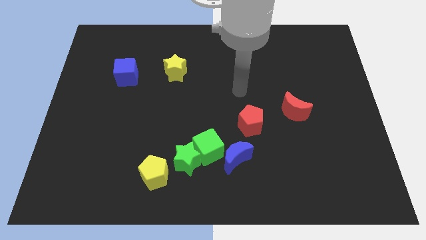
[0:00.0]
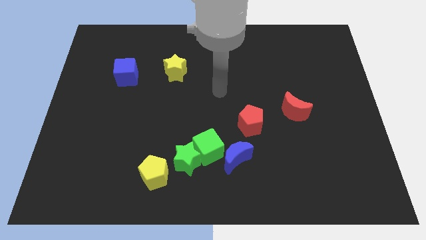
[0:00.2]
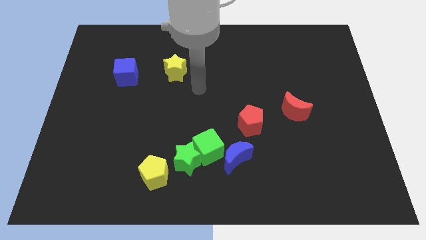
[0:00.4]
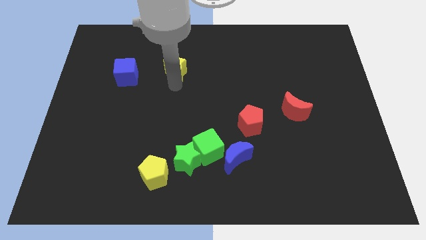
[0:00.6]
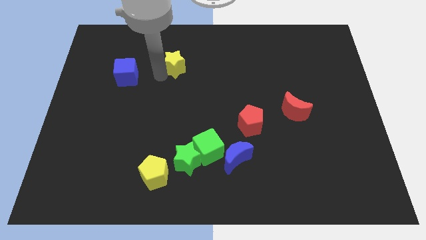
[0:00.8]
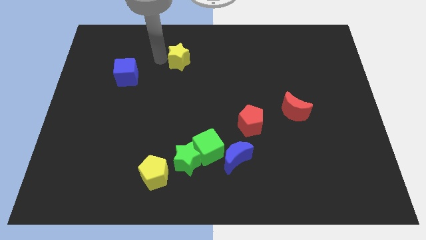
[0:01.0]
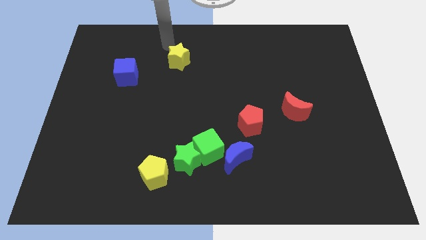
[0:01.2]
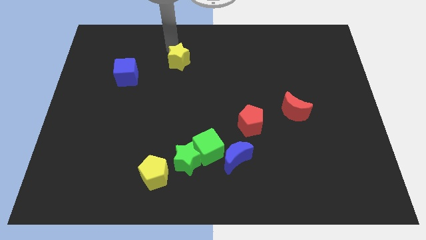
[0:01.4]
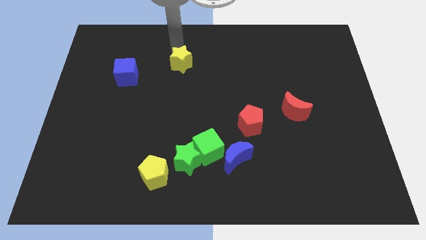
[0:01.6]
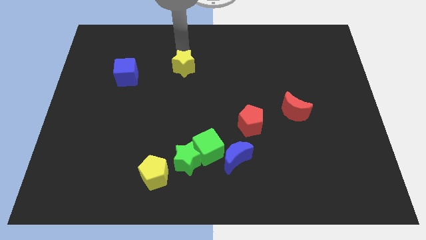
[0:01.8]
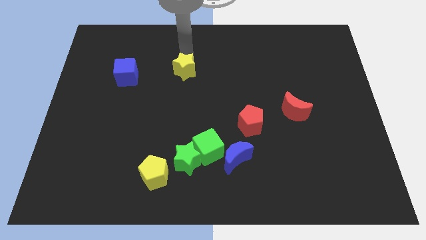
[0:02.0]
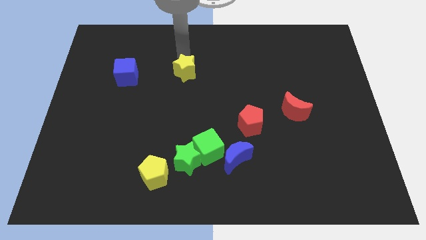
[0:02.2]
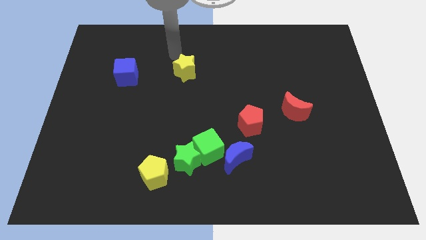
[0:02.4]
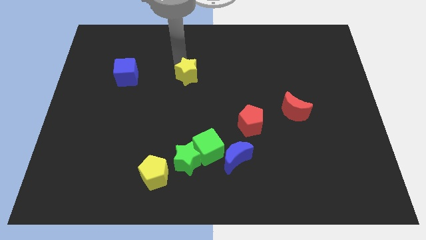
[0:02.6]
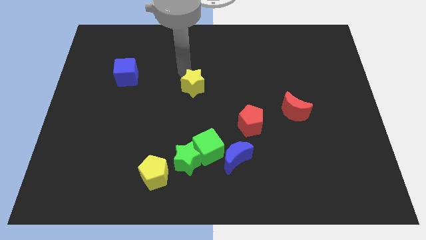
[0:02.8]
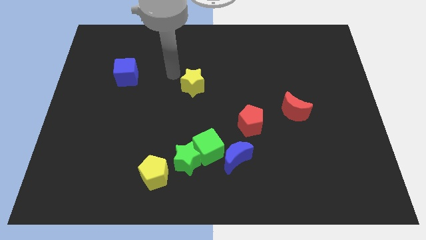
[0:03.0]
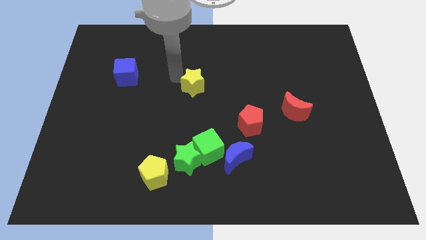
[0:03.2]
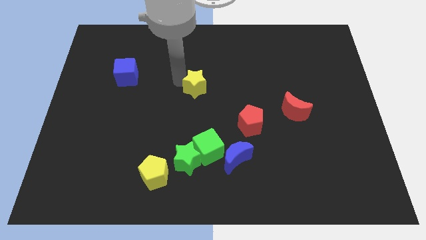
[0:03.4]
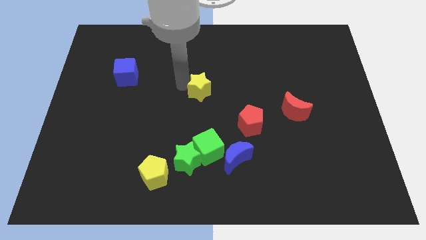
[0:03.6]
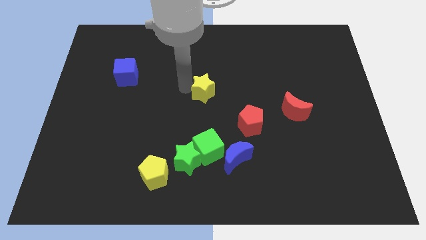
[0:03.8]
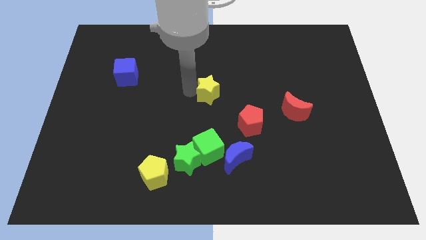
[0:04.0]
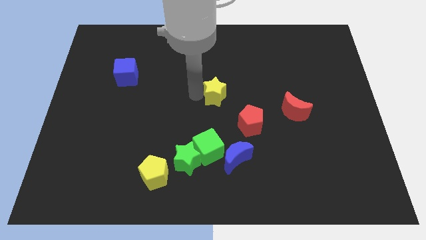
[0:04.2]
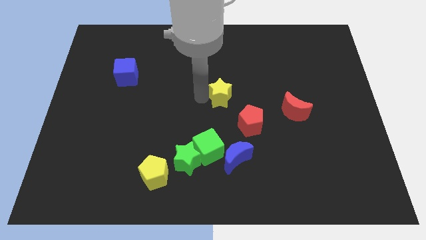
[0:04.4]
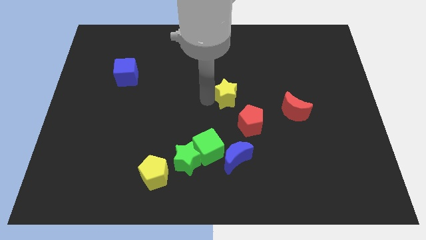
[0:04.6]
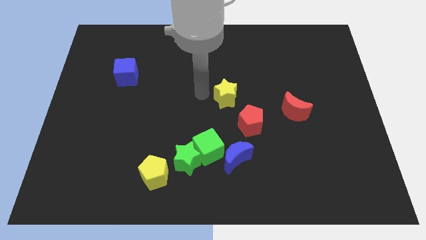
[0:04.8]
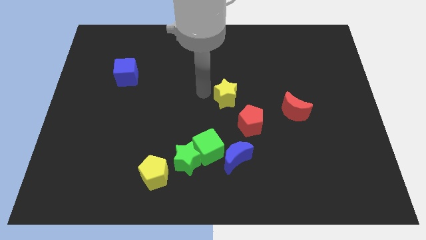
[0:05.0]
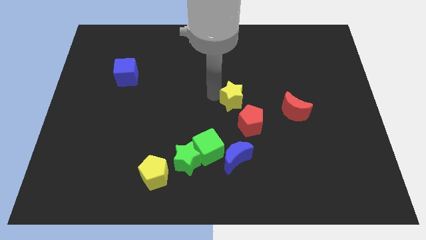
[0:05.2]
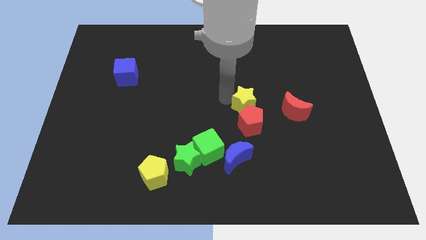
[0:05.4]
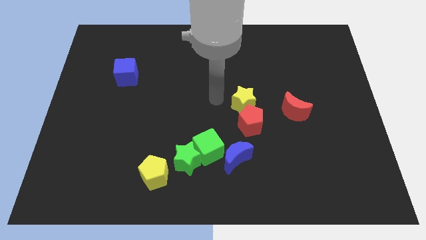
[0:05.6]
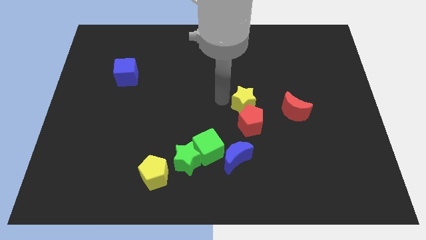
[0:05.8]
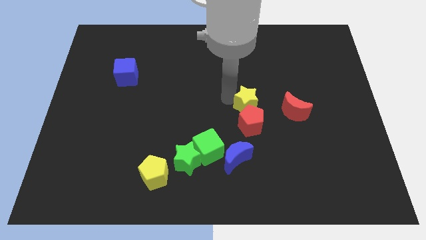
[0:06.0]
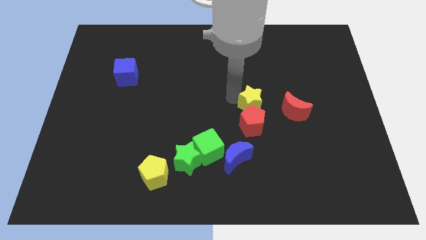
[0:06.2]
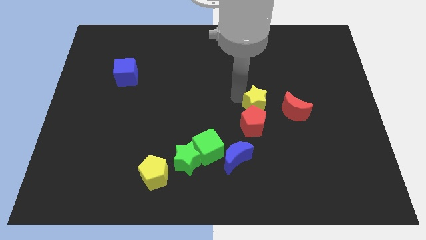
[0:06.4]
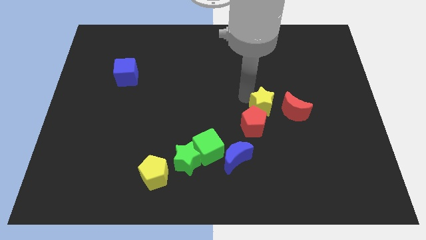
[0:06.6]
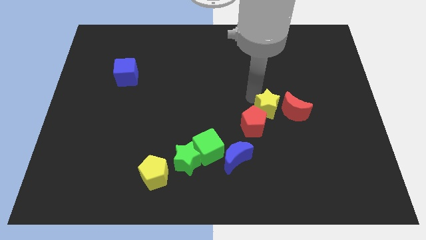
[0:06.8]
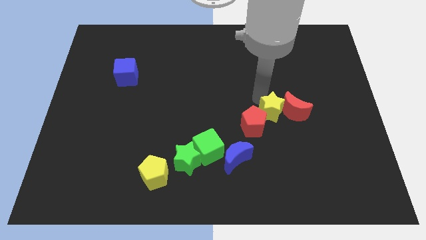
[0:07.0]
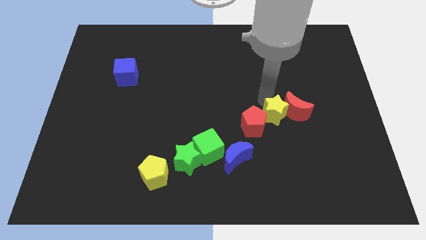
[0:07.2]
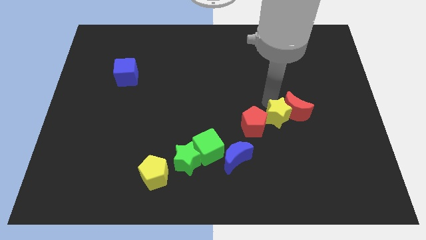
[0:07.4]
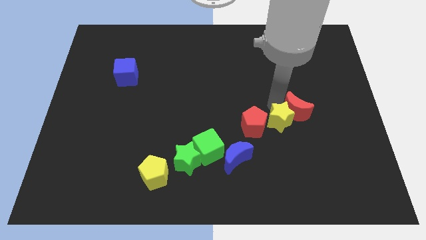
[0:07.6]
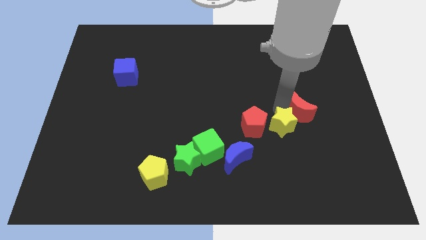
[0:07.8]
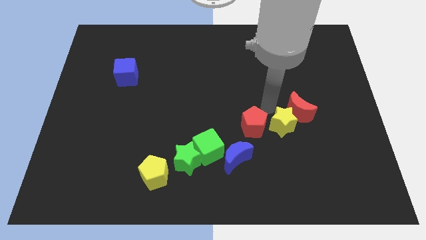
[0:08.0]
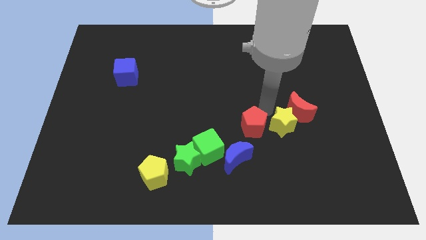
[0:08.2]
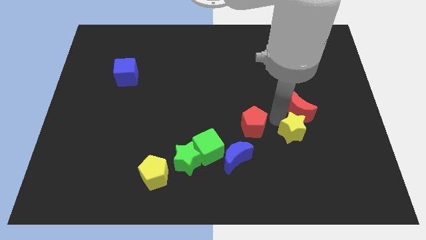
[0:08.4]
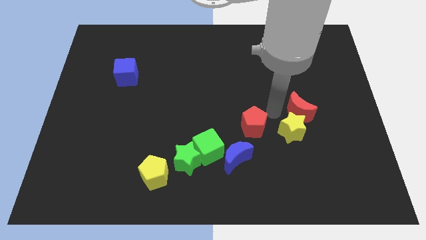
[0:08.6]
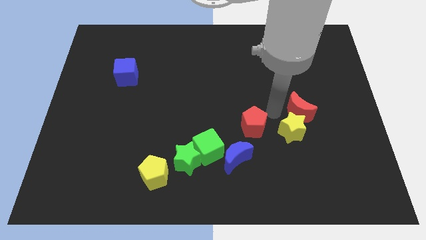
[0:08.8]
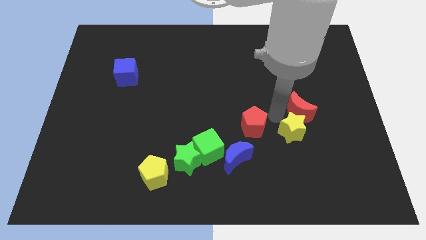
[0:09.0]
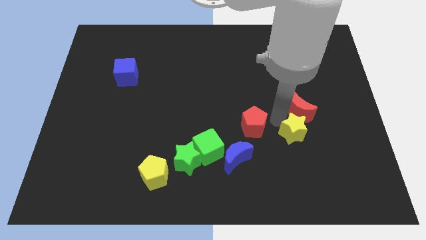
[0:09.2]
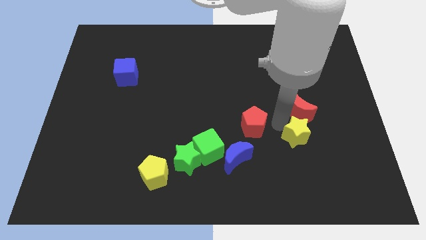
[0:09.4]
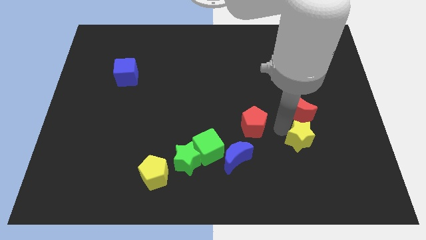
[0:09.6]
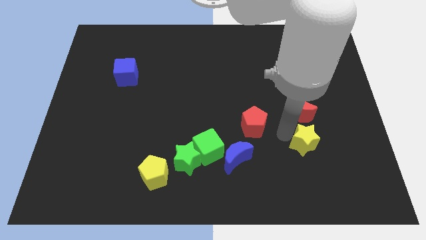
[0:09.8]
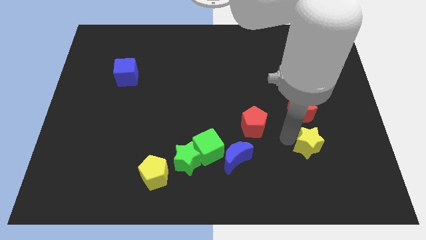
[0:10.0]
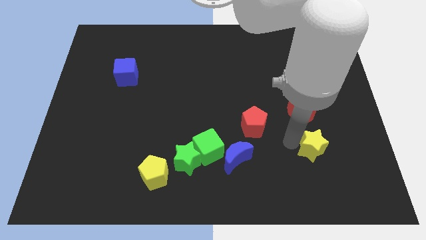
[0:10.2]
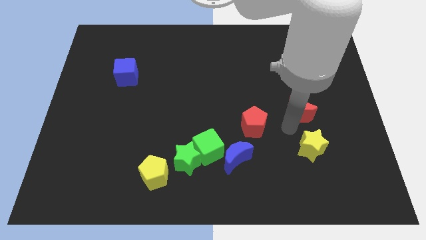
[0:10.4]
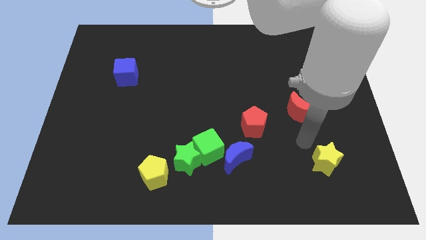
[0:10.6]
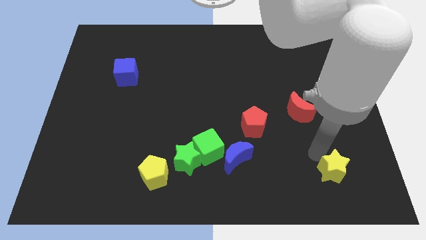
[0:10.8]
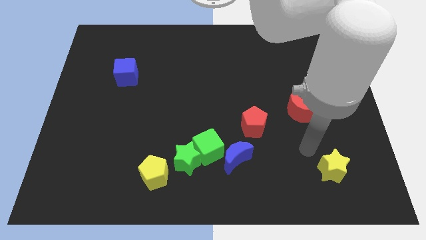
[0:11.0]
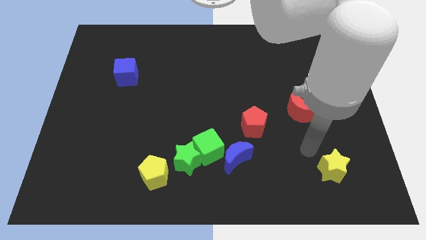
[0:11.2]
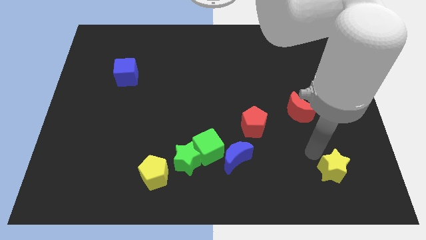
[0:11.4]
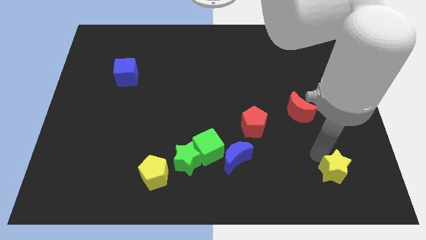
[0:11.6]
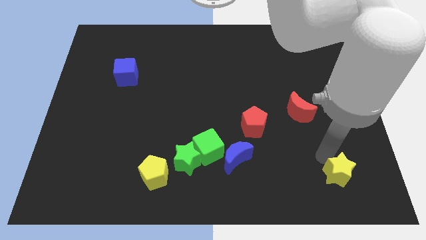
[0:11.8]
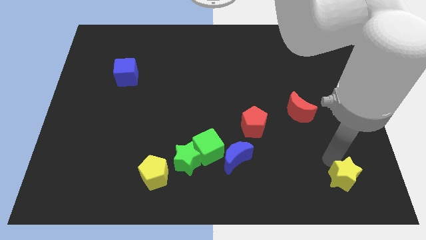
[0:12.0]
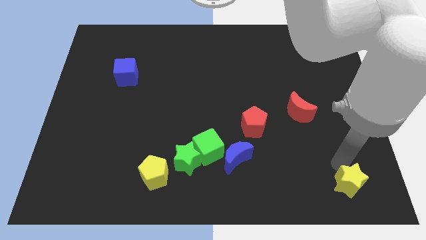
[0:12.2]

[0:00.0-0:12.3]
move the yellow star to the lower right corner

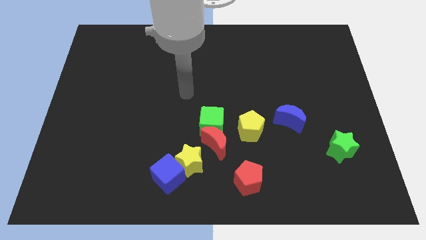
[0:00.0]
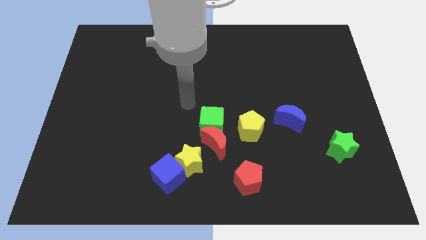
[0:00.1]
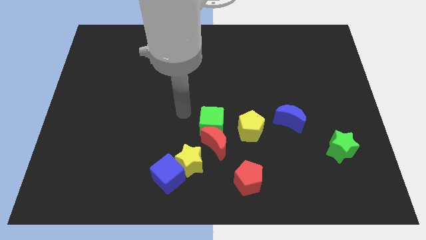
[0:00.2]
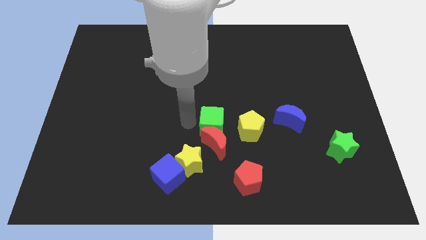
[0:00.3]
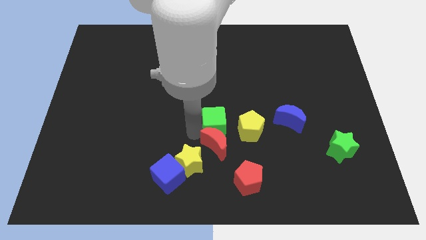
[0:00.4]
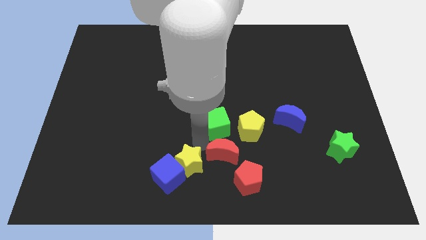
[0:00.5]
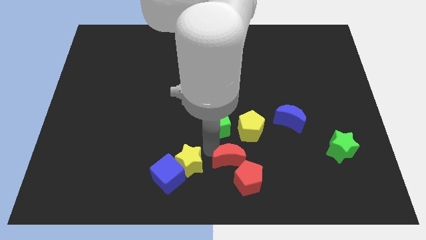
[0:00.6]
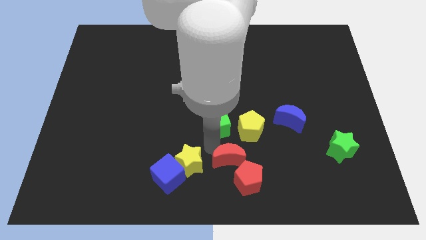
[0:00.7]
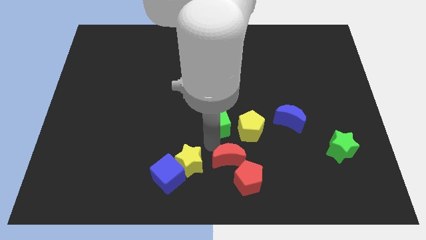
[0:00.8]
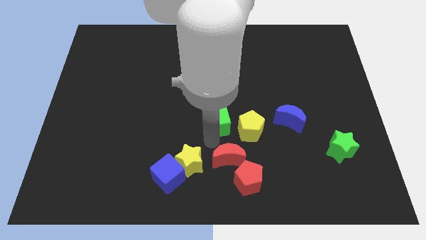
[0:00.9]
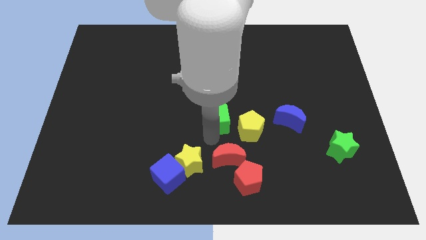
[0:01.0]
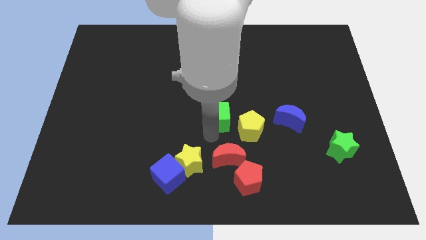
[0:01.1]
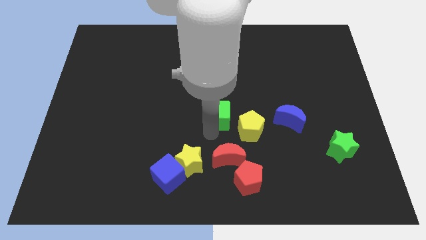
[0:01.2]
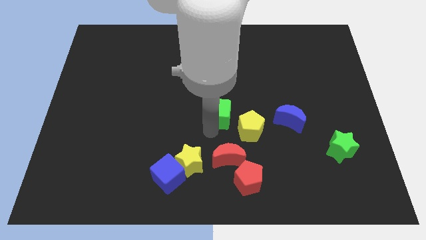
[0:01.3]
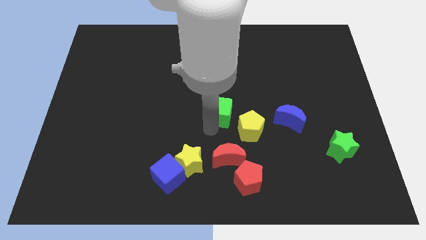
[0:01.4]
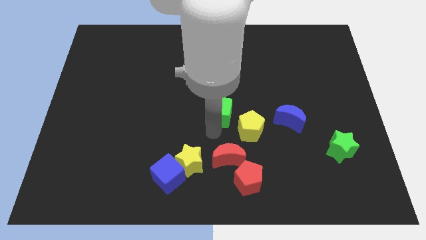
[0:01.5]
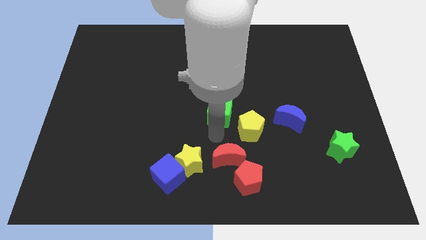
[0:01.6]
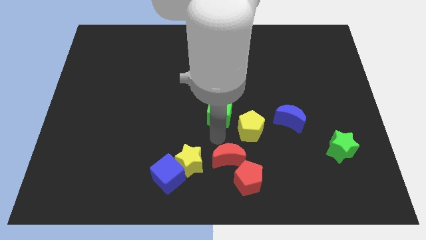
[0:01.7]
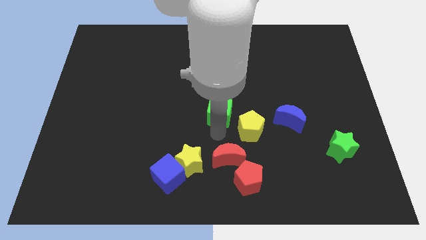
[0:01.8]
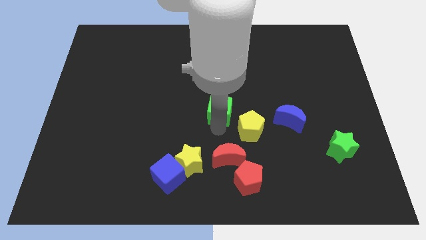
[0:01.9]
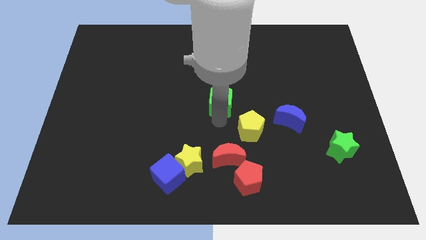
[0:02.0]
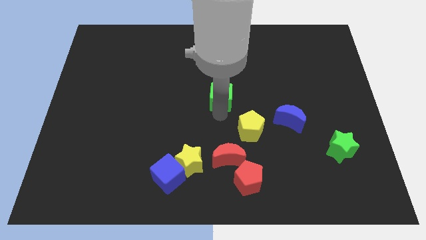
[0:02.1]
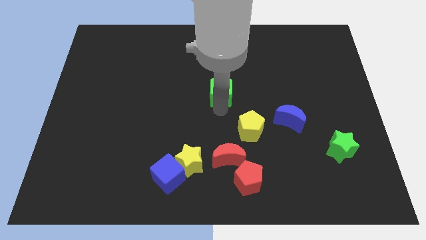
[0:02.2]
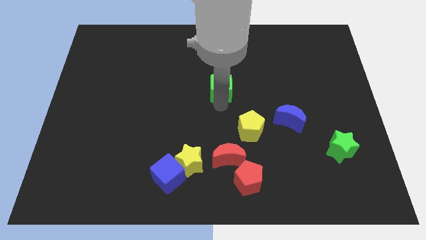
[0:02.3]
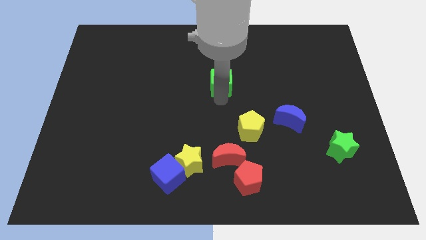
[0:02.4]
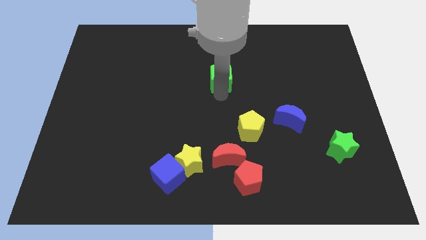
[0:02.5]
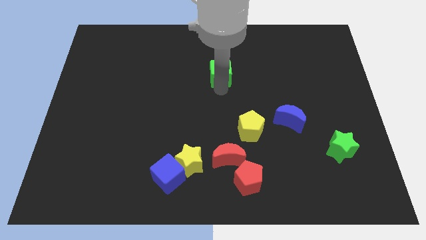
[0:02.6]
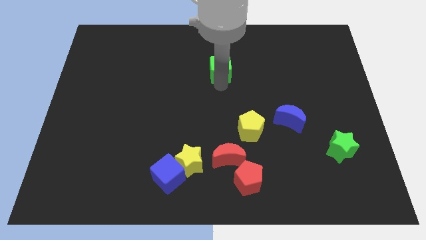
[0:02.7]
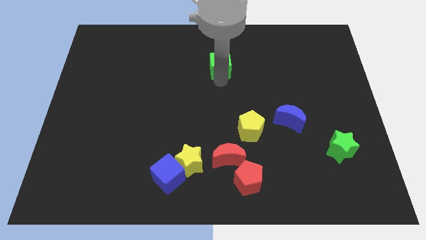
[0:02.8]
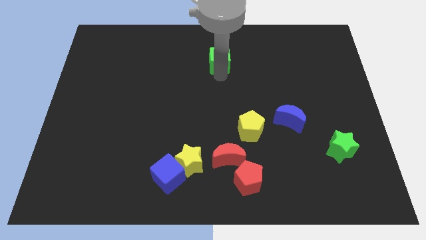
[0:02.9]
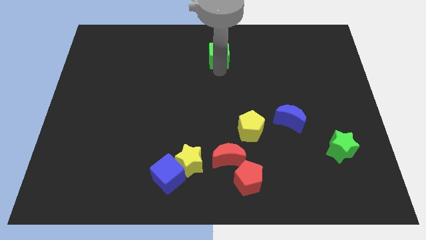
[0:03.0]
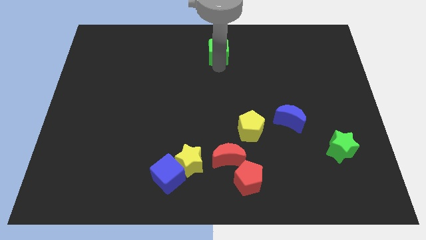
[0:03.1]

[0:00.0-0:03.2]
push the green cube to the towards your base
